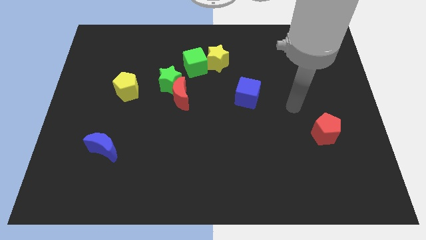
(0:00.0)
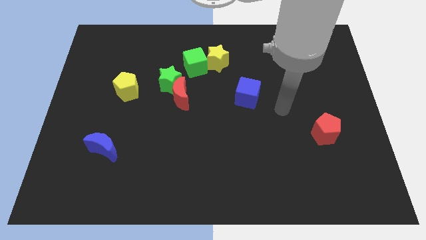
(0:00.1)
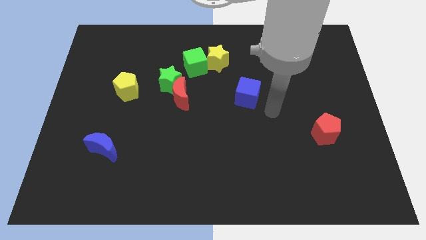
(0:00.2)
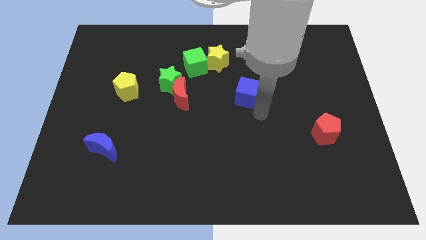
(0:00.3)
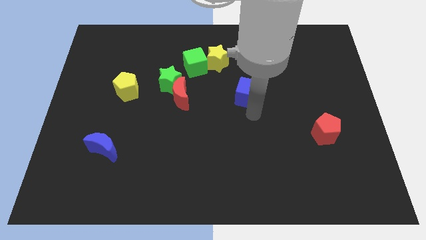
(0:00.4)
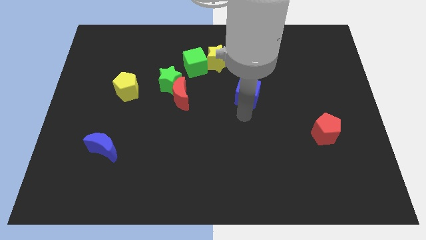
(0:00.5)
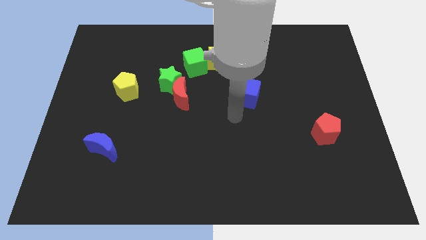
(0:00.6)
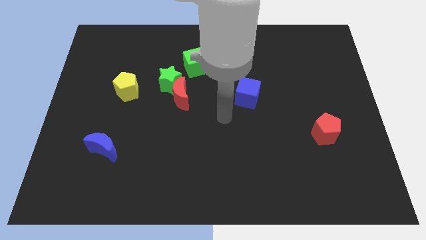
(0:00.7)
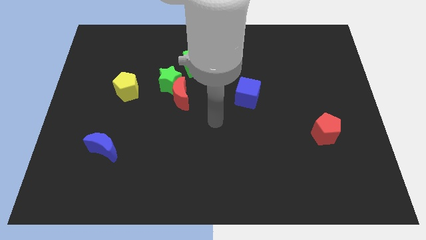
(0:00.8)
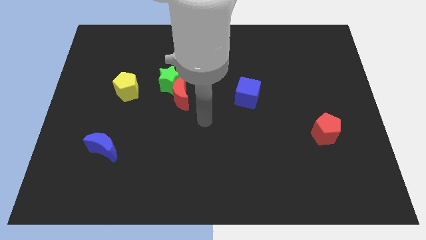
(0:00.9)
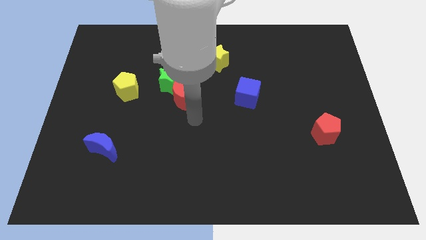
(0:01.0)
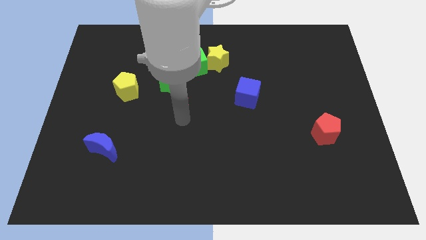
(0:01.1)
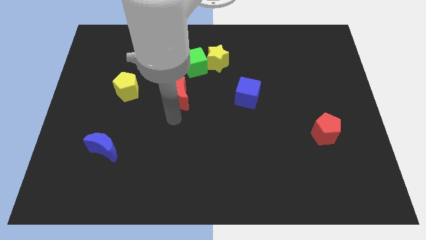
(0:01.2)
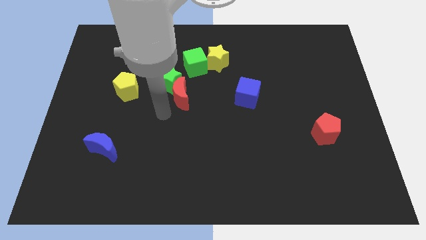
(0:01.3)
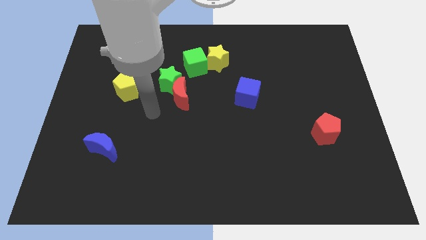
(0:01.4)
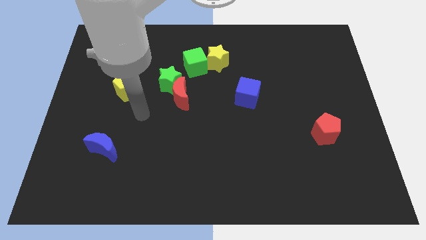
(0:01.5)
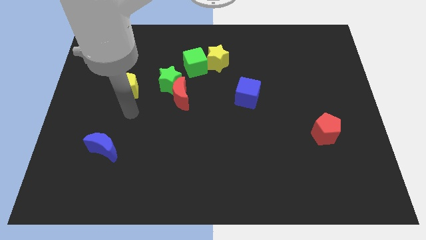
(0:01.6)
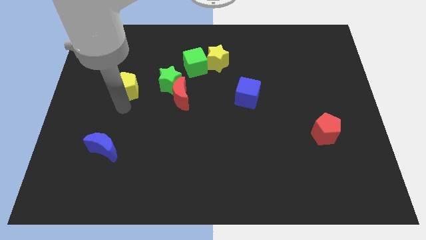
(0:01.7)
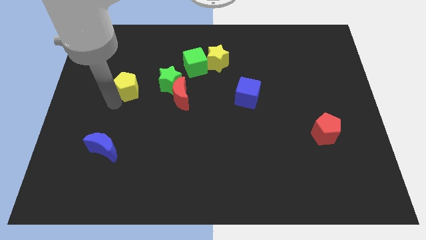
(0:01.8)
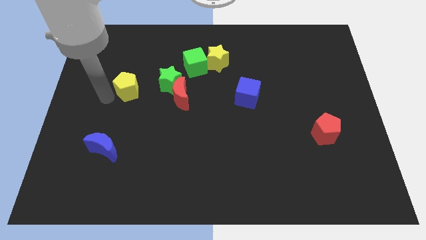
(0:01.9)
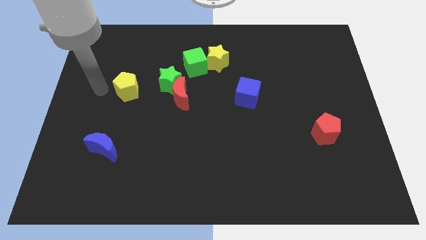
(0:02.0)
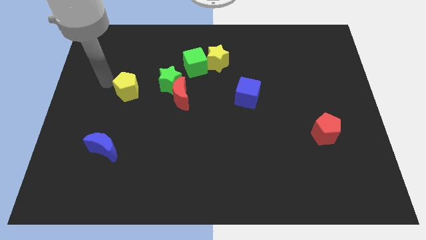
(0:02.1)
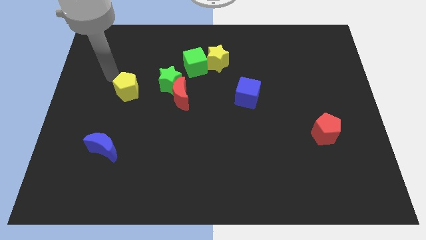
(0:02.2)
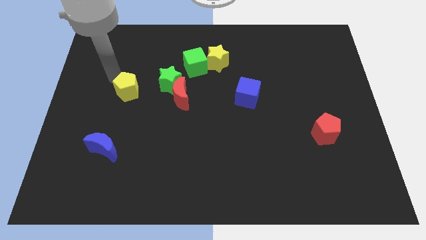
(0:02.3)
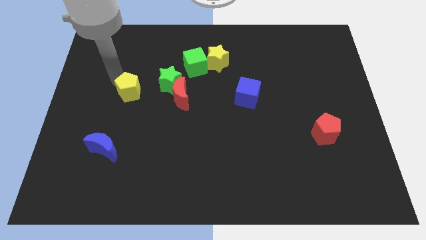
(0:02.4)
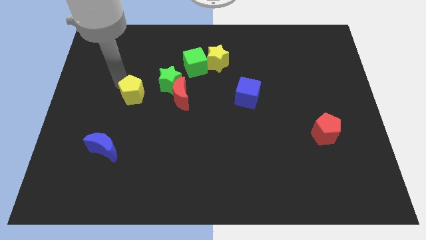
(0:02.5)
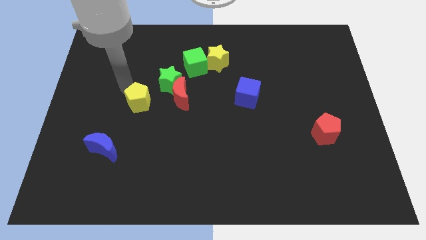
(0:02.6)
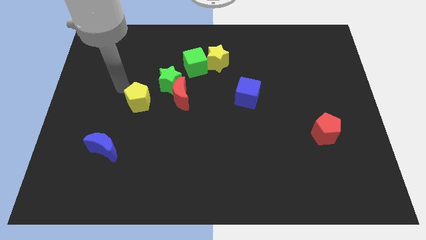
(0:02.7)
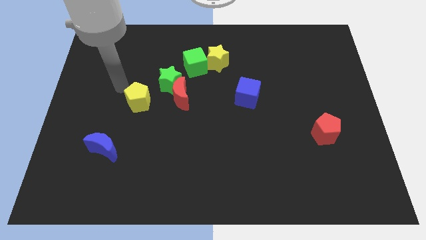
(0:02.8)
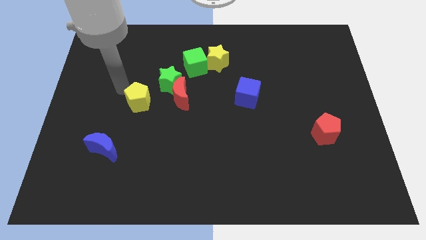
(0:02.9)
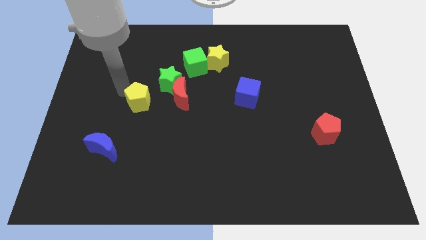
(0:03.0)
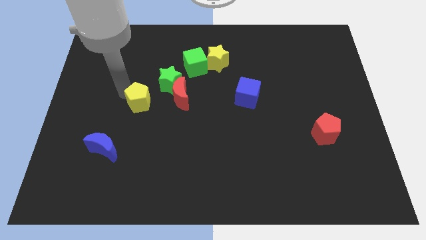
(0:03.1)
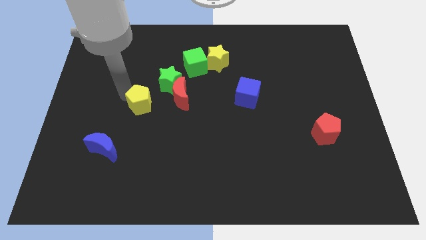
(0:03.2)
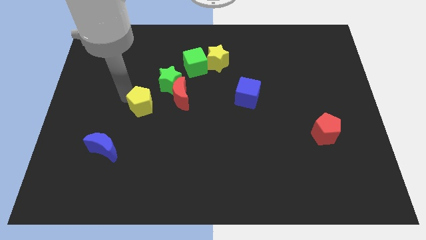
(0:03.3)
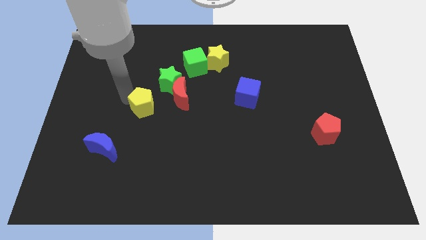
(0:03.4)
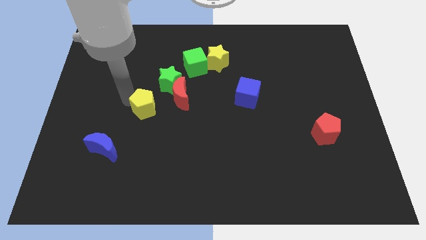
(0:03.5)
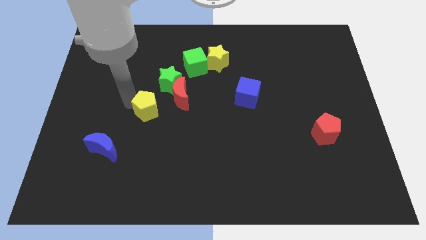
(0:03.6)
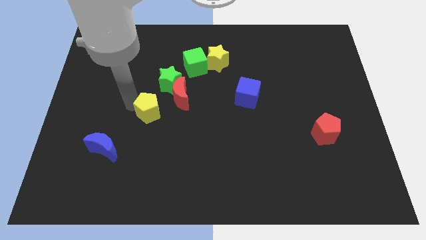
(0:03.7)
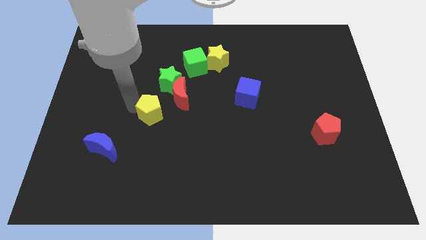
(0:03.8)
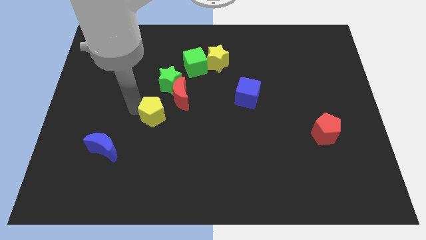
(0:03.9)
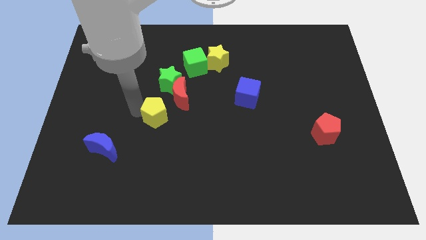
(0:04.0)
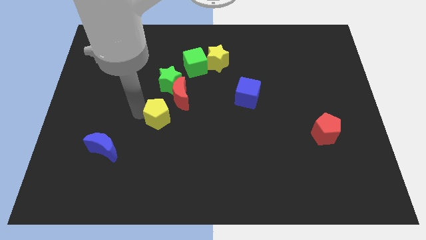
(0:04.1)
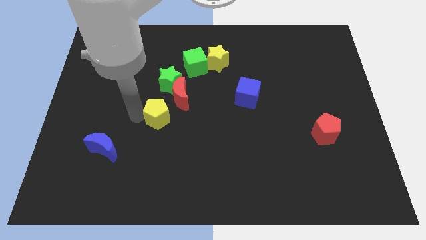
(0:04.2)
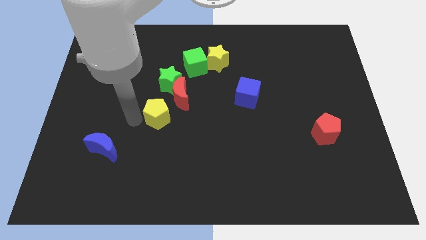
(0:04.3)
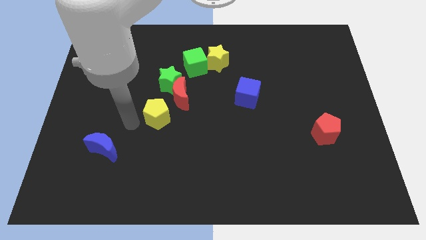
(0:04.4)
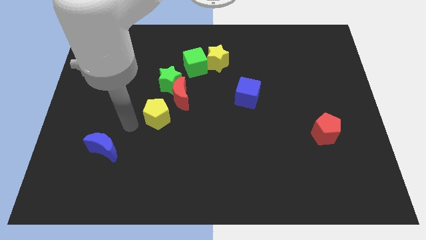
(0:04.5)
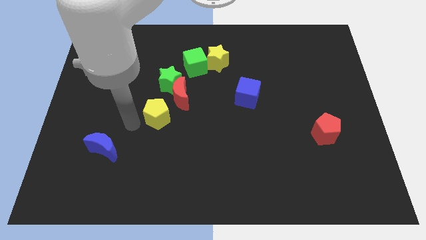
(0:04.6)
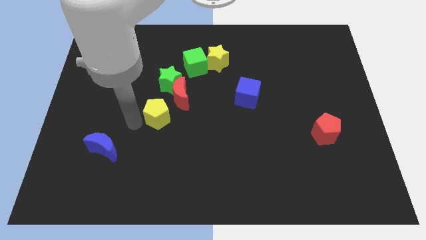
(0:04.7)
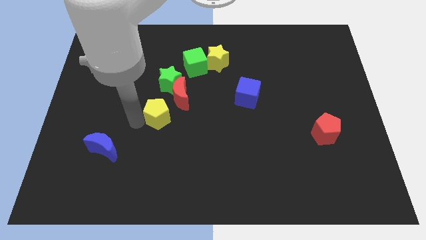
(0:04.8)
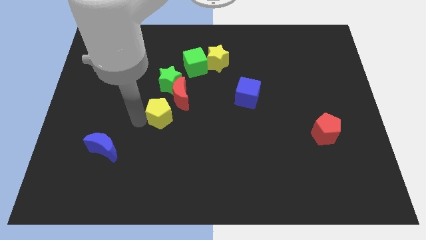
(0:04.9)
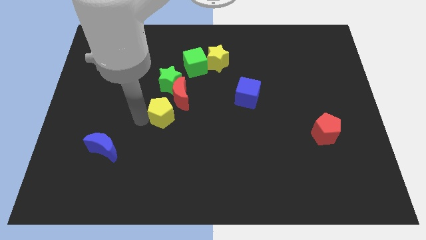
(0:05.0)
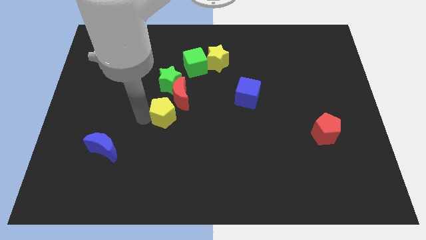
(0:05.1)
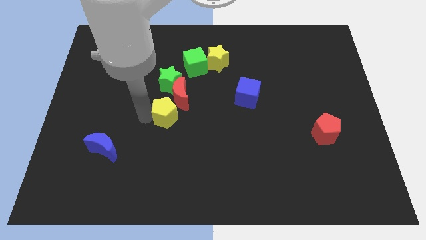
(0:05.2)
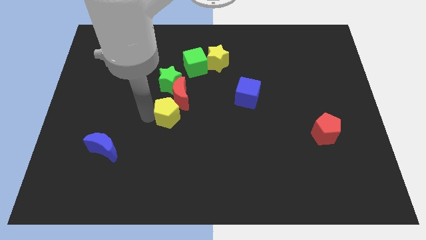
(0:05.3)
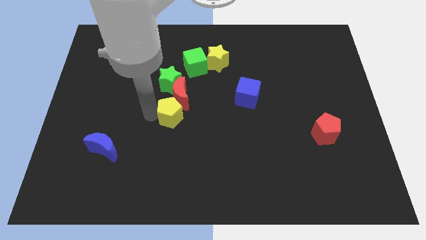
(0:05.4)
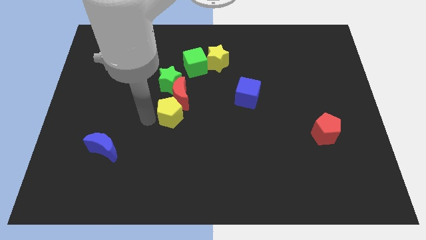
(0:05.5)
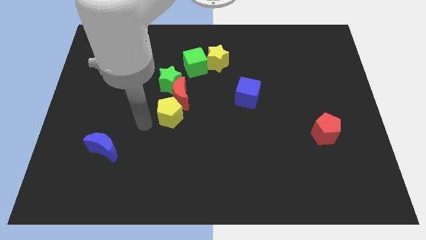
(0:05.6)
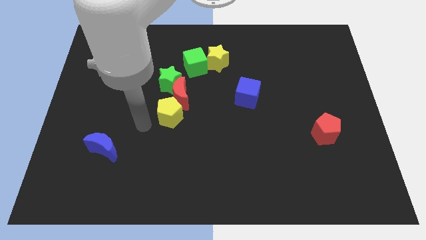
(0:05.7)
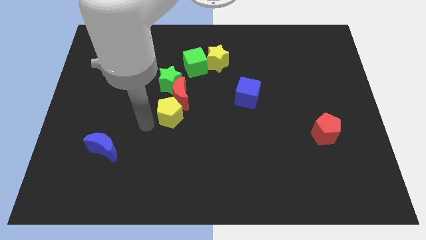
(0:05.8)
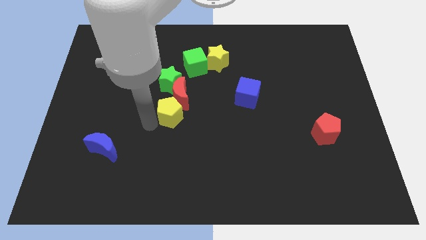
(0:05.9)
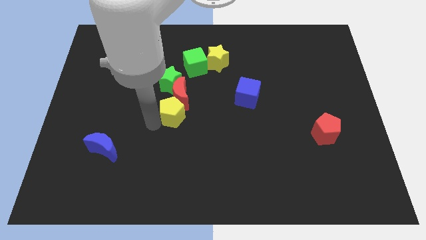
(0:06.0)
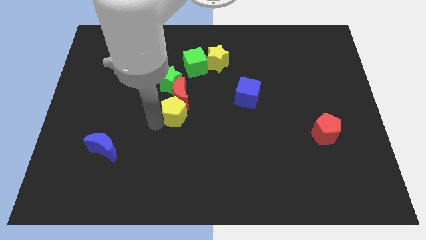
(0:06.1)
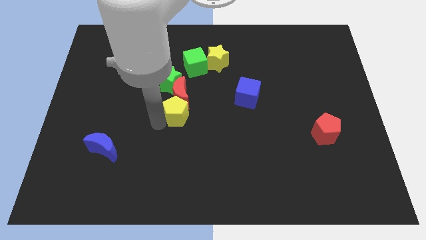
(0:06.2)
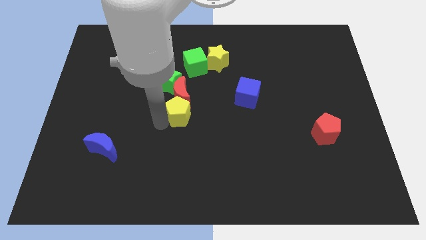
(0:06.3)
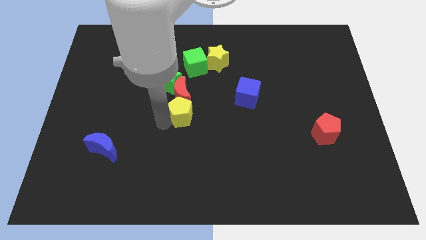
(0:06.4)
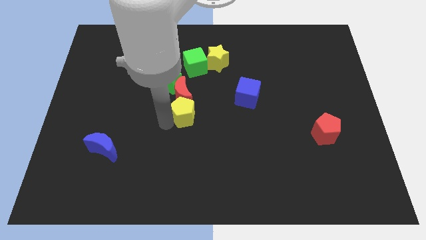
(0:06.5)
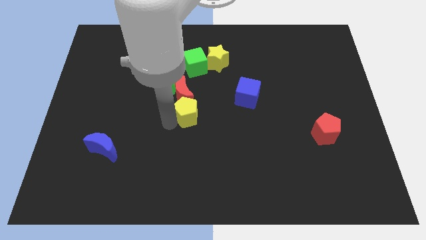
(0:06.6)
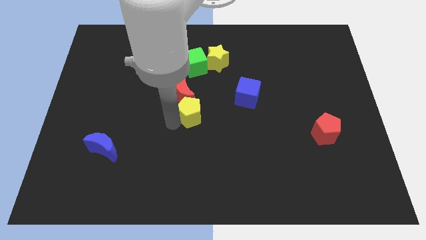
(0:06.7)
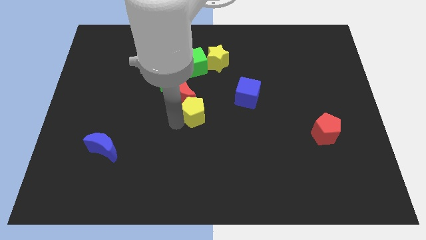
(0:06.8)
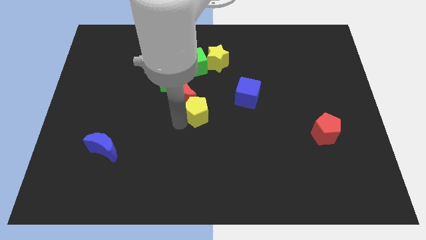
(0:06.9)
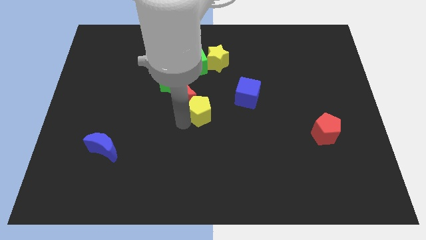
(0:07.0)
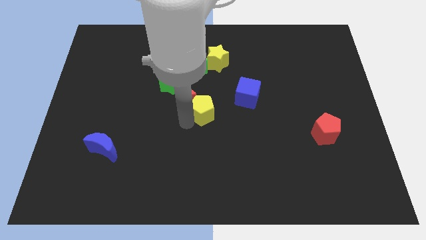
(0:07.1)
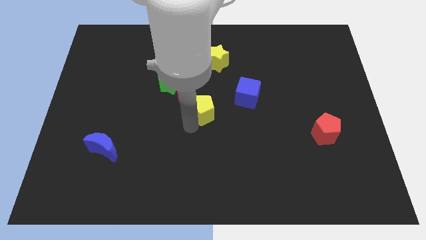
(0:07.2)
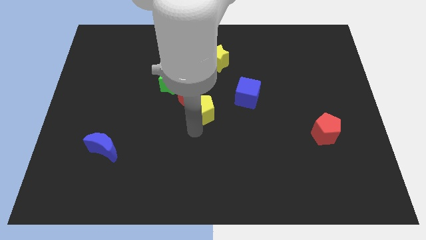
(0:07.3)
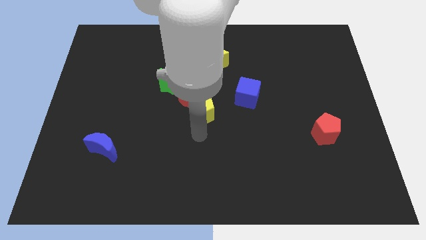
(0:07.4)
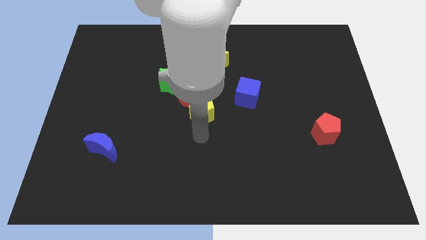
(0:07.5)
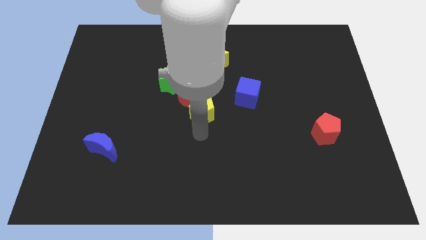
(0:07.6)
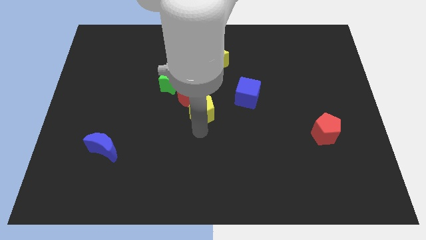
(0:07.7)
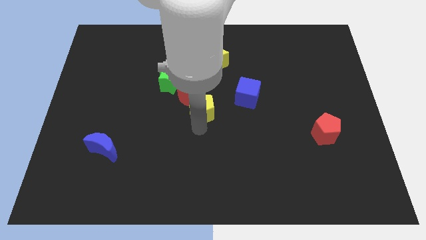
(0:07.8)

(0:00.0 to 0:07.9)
put the yellow pentagon just left of the blue cube
